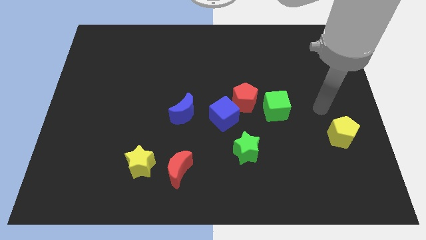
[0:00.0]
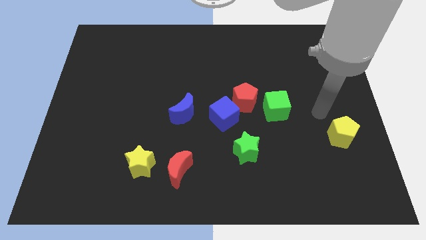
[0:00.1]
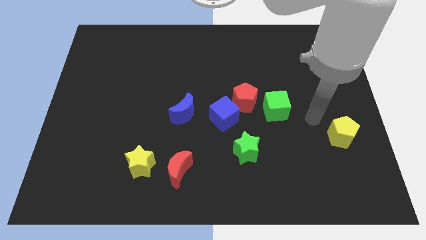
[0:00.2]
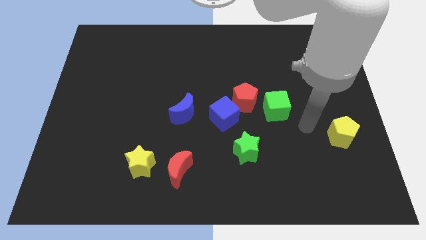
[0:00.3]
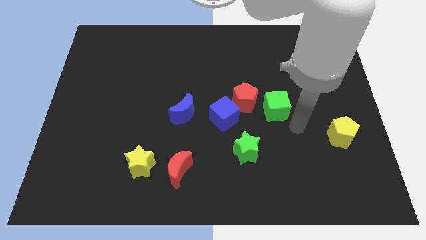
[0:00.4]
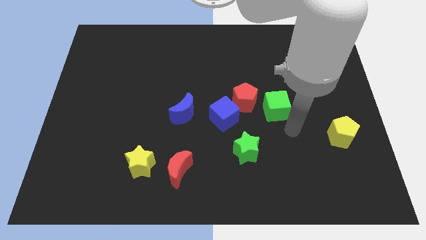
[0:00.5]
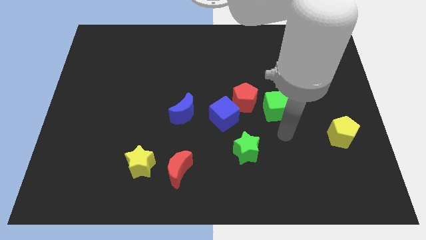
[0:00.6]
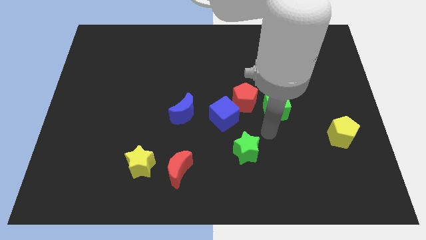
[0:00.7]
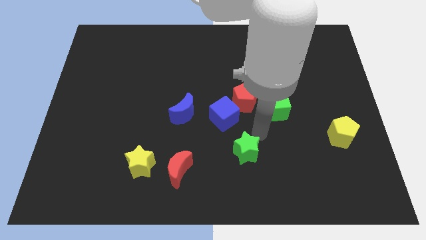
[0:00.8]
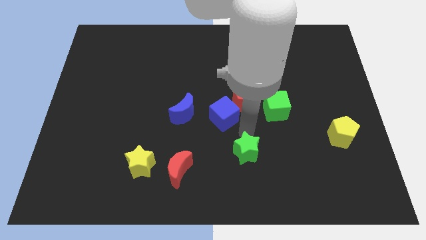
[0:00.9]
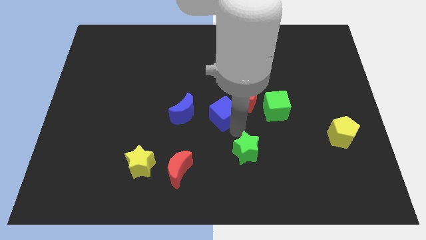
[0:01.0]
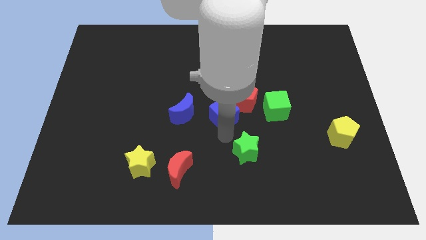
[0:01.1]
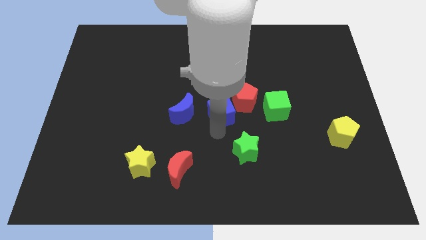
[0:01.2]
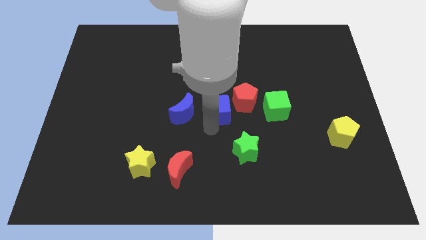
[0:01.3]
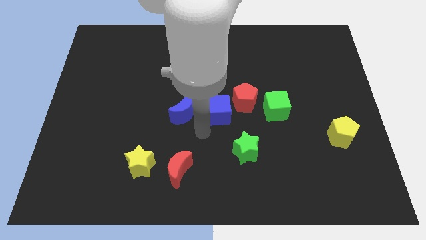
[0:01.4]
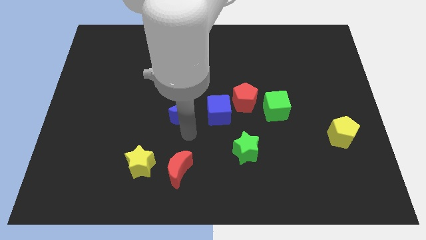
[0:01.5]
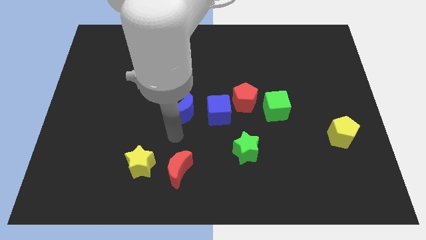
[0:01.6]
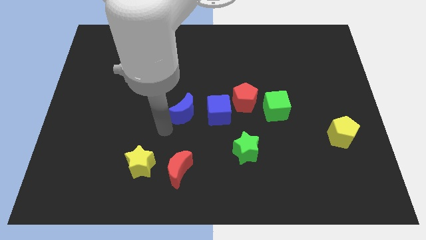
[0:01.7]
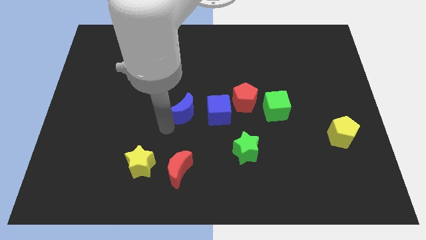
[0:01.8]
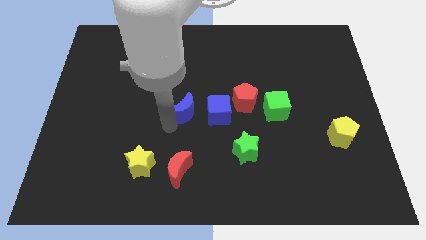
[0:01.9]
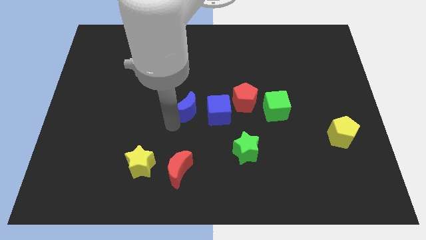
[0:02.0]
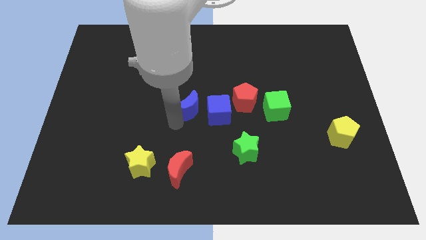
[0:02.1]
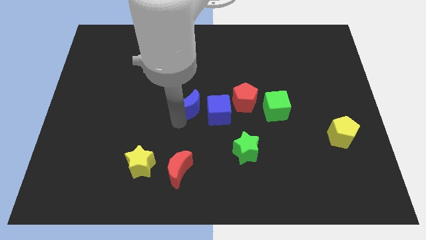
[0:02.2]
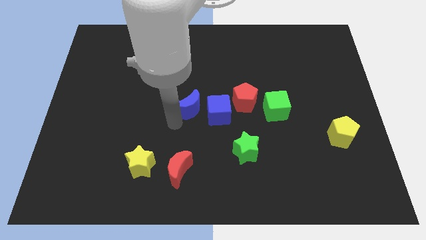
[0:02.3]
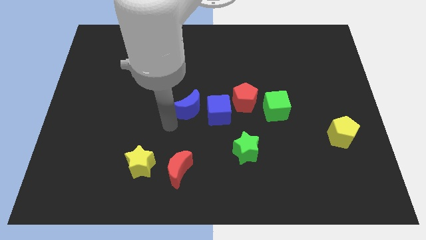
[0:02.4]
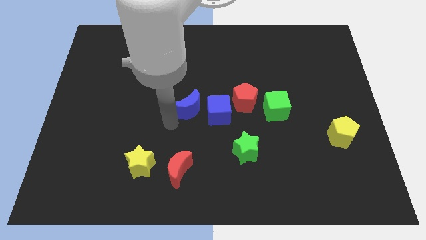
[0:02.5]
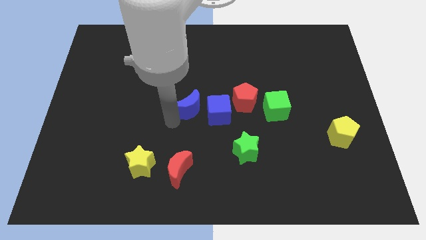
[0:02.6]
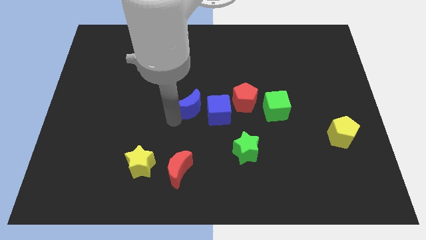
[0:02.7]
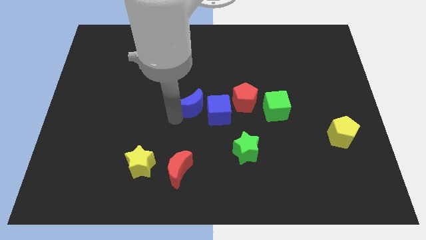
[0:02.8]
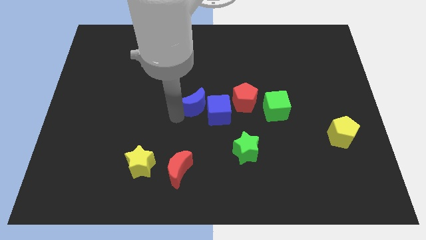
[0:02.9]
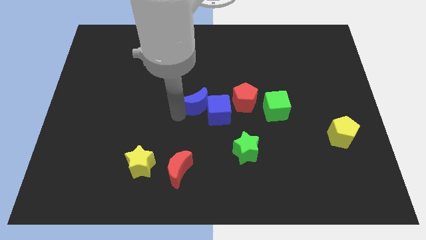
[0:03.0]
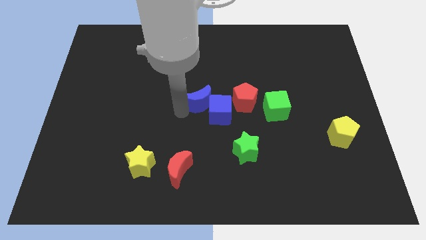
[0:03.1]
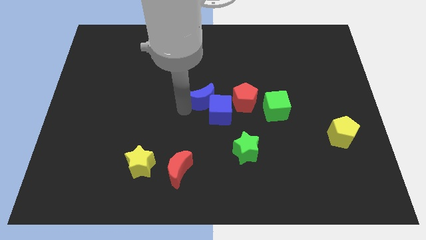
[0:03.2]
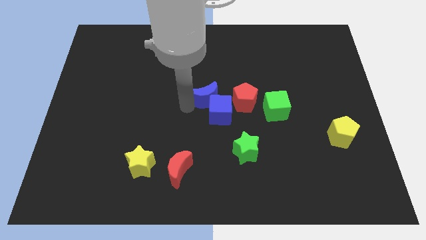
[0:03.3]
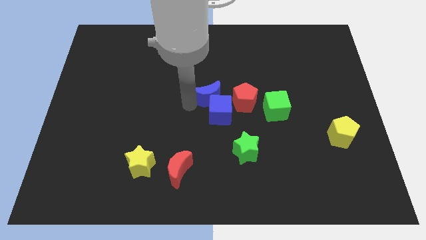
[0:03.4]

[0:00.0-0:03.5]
move the blue moon a bit upwards and then right

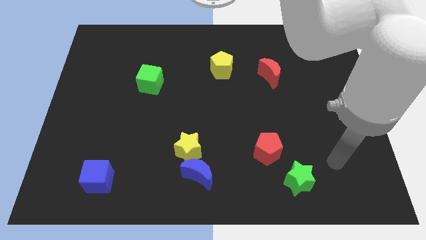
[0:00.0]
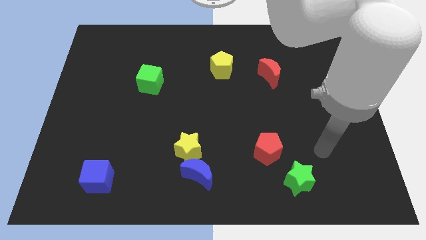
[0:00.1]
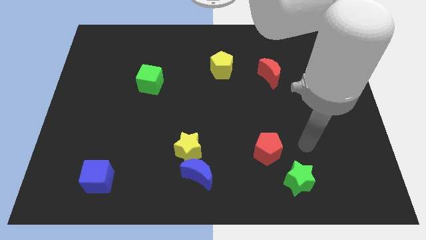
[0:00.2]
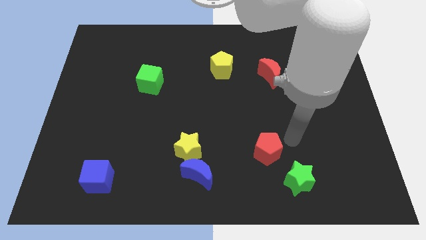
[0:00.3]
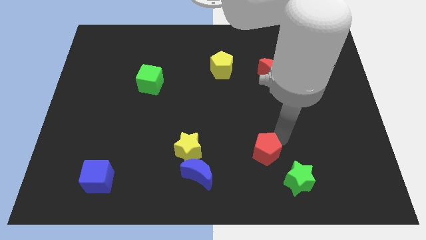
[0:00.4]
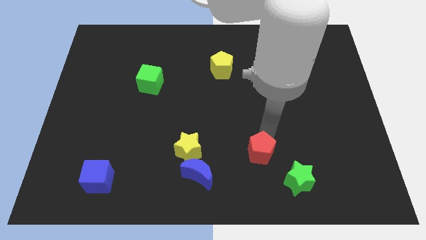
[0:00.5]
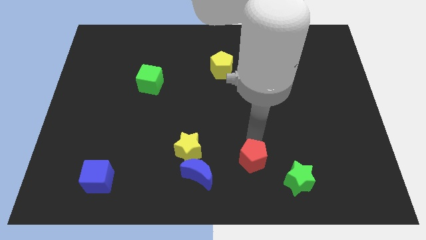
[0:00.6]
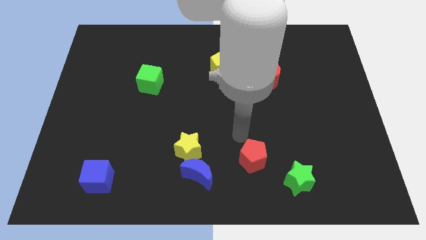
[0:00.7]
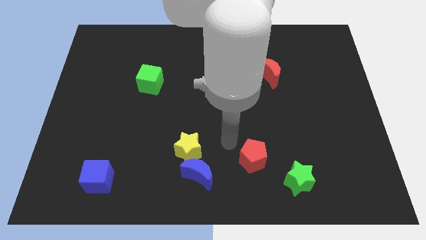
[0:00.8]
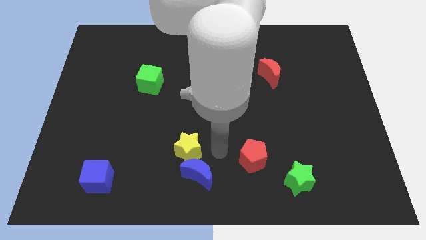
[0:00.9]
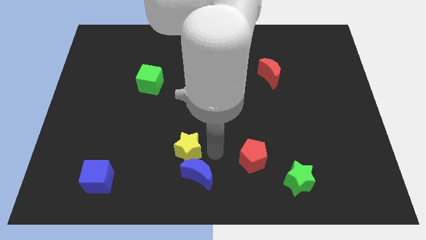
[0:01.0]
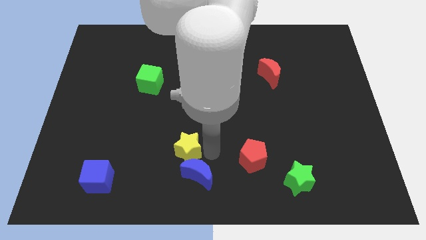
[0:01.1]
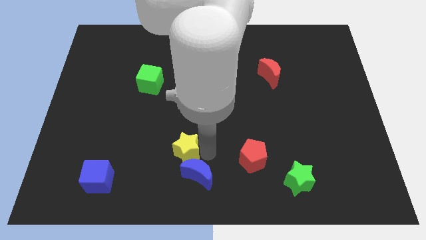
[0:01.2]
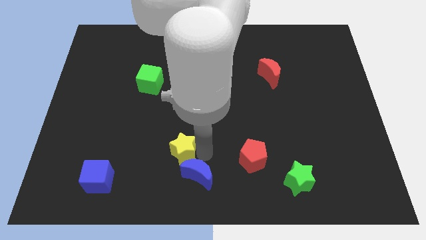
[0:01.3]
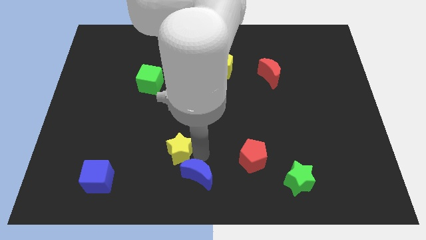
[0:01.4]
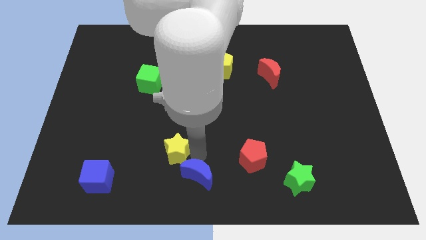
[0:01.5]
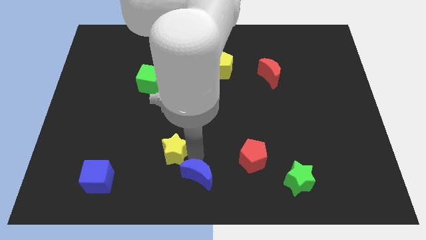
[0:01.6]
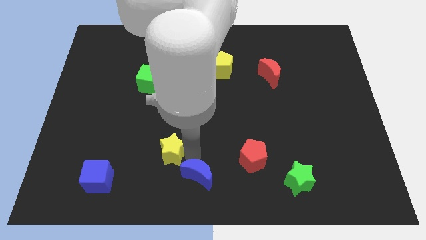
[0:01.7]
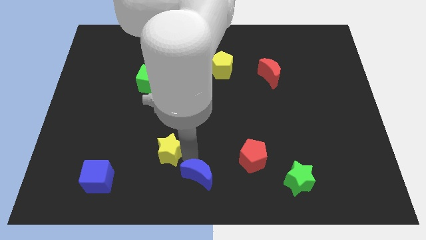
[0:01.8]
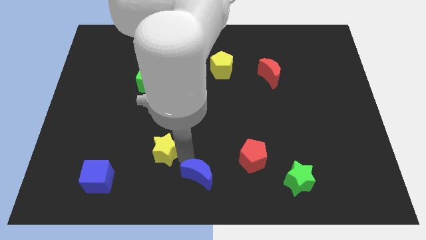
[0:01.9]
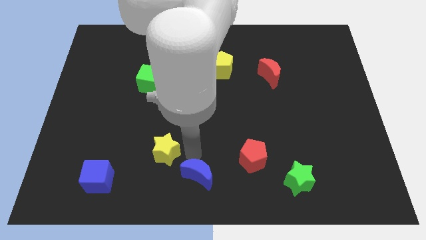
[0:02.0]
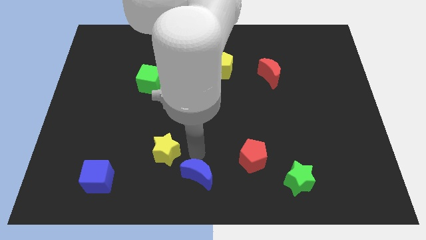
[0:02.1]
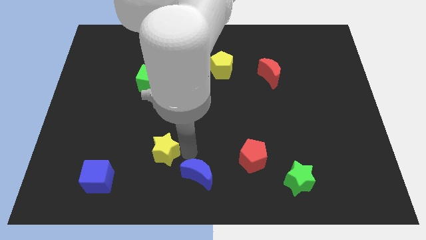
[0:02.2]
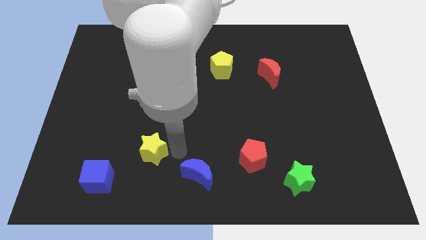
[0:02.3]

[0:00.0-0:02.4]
move the yellow star slightly left

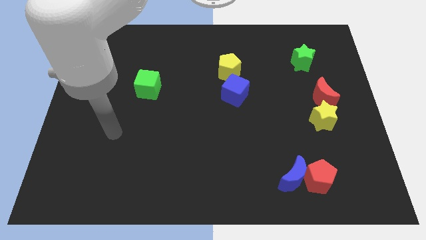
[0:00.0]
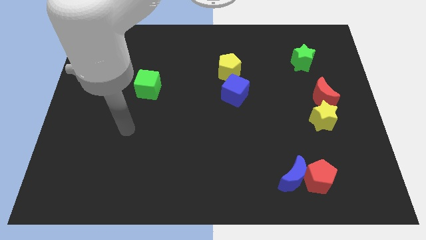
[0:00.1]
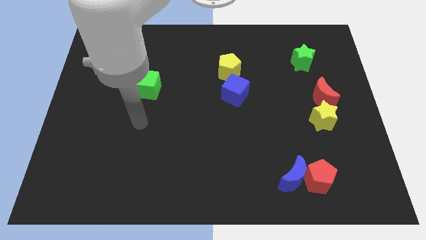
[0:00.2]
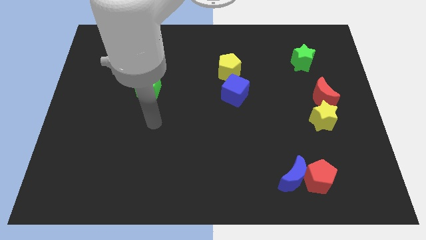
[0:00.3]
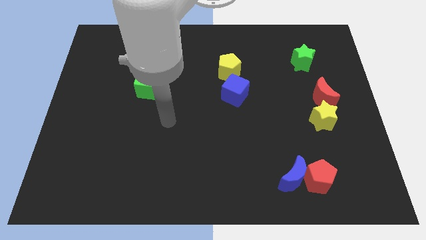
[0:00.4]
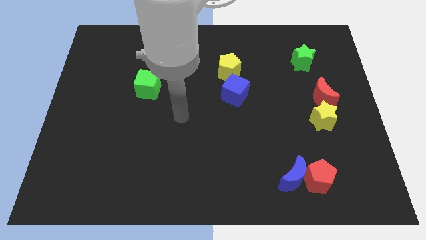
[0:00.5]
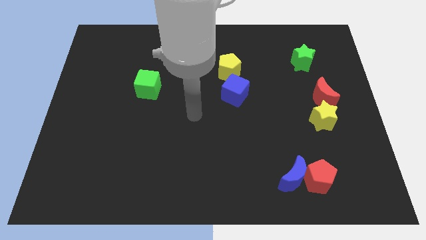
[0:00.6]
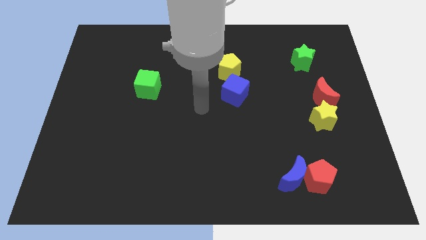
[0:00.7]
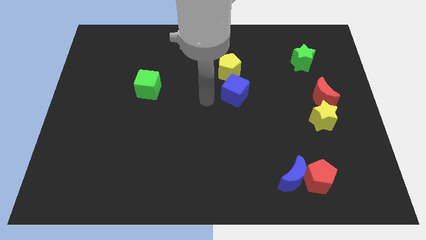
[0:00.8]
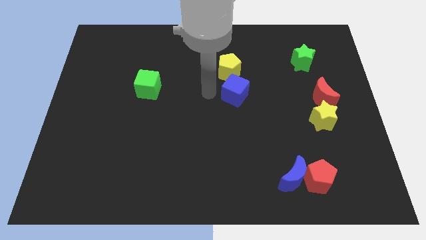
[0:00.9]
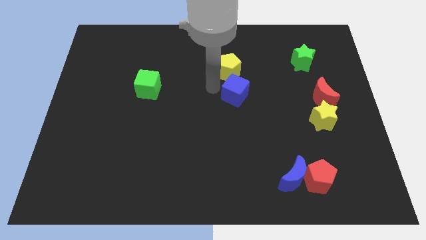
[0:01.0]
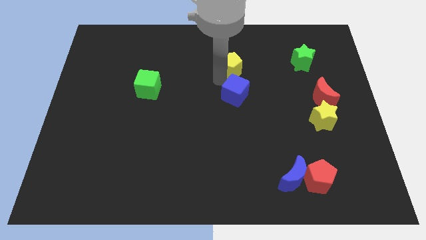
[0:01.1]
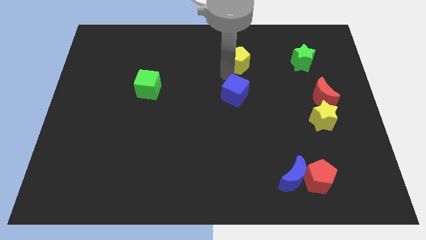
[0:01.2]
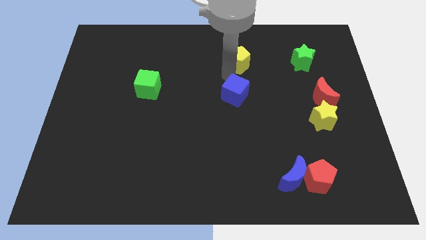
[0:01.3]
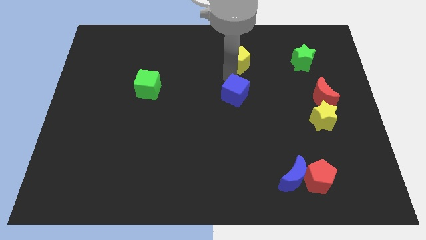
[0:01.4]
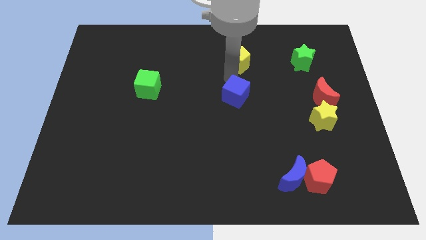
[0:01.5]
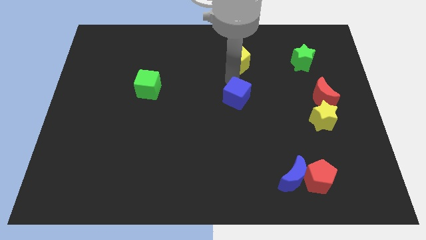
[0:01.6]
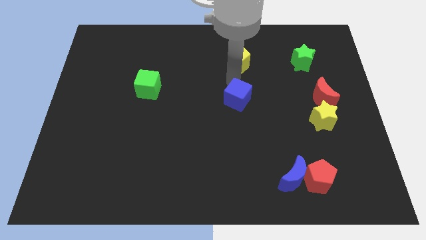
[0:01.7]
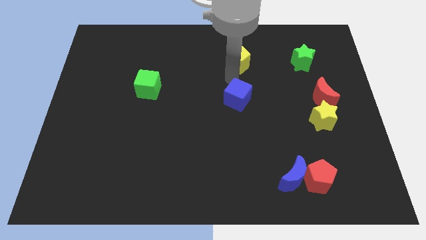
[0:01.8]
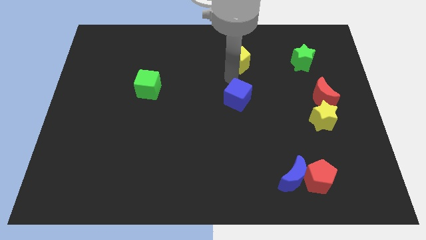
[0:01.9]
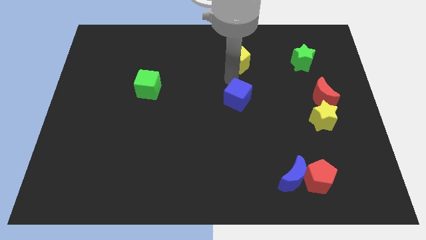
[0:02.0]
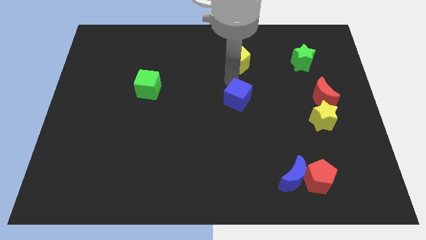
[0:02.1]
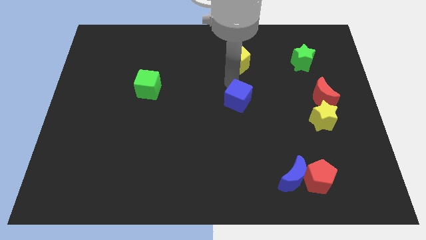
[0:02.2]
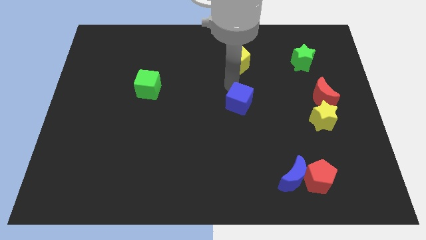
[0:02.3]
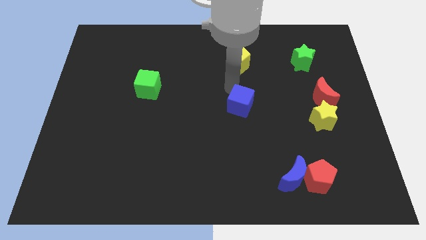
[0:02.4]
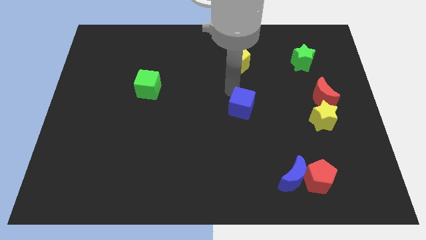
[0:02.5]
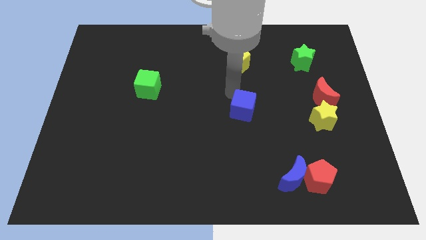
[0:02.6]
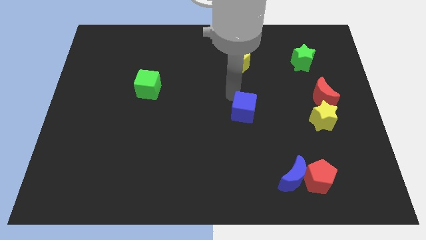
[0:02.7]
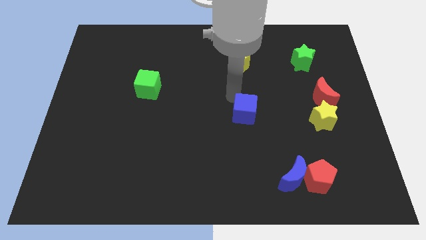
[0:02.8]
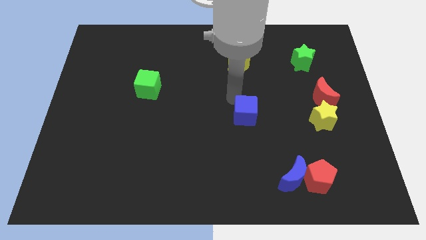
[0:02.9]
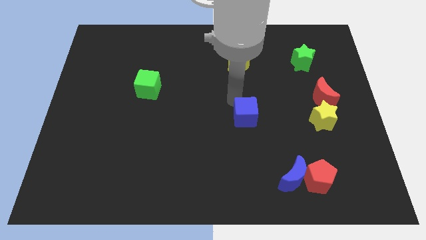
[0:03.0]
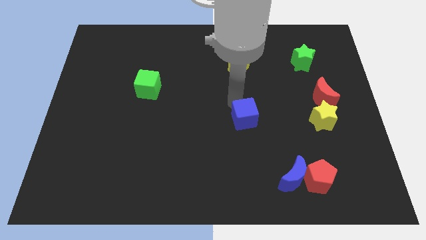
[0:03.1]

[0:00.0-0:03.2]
move the blue cube down slightly
